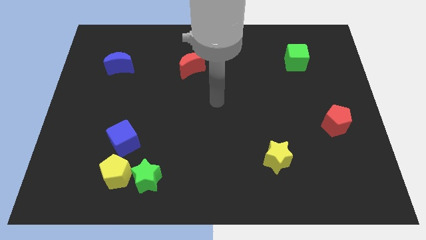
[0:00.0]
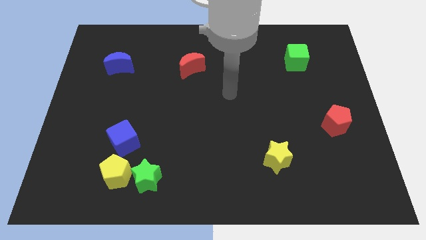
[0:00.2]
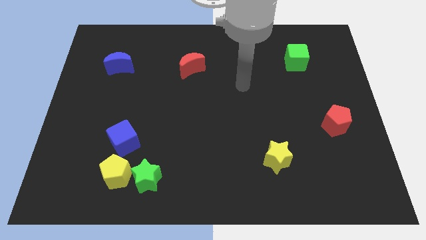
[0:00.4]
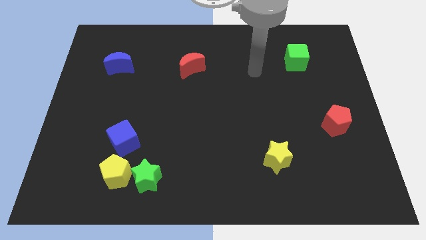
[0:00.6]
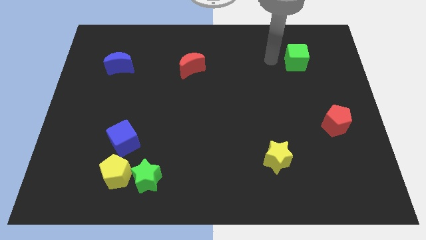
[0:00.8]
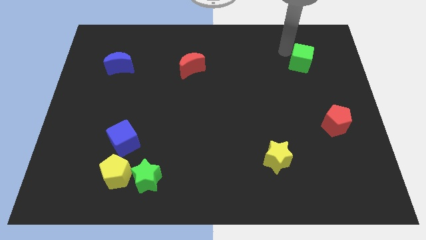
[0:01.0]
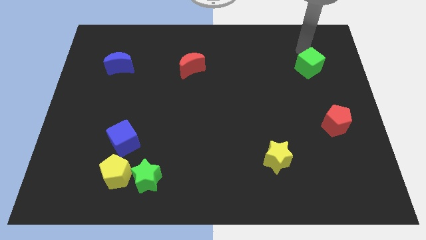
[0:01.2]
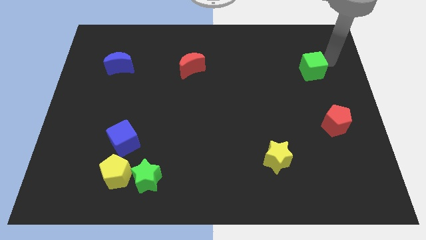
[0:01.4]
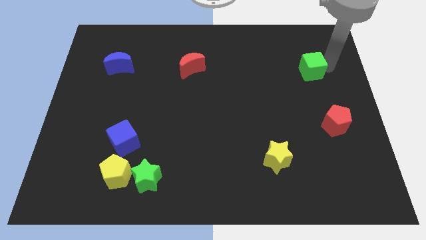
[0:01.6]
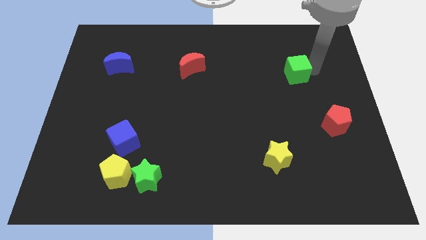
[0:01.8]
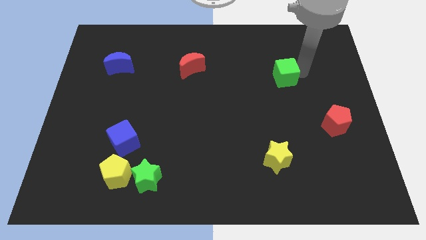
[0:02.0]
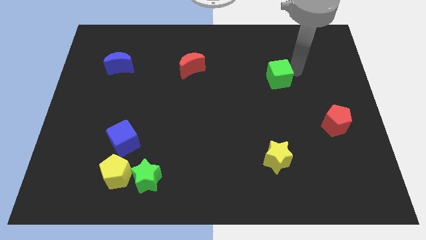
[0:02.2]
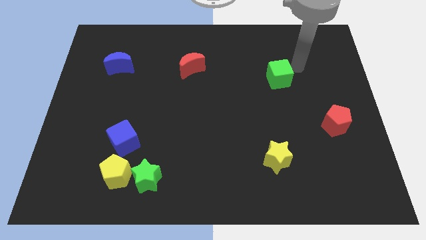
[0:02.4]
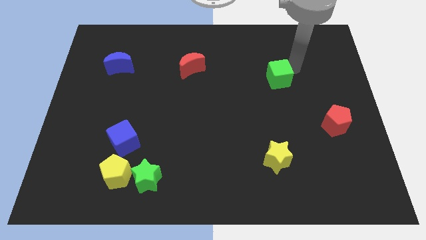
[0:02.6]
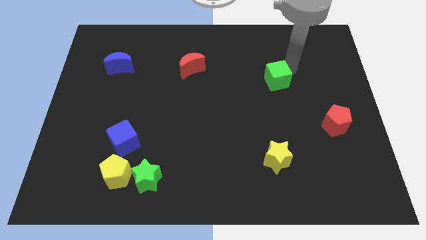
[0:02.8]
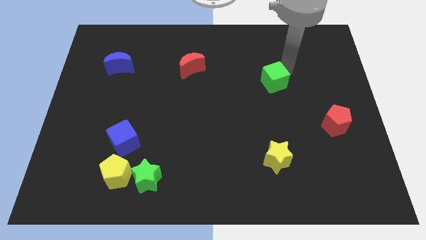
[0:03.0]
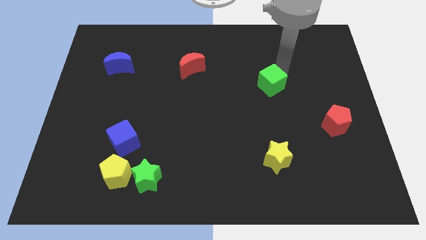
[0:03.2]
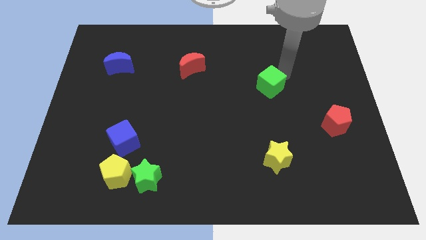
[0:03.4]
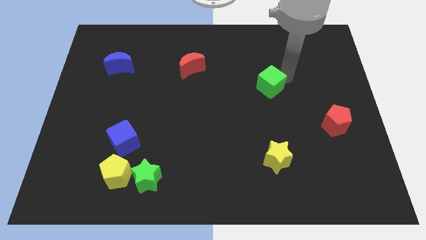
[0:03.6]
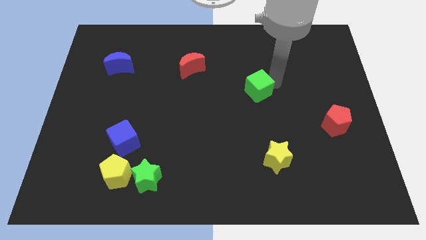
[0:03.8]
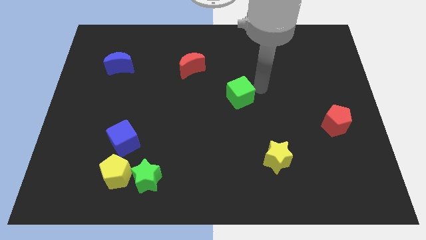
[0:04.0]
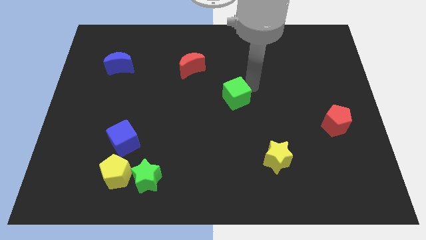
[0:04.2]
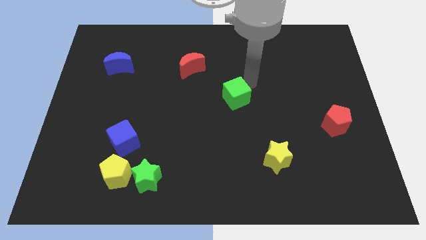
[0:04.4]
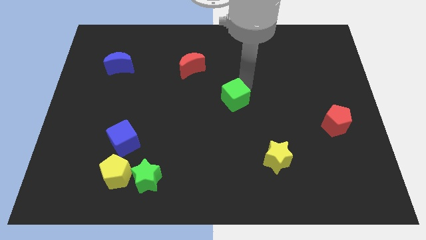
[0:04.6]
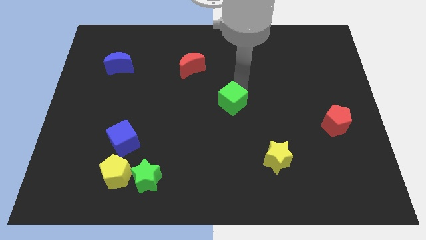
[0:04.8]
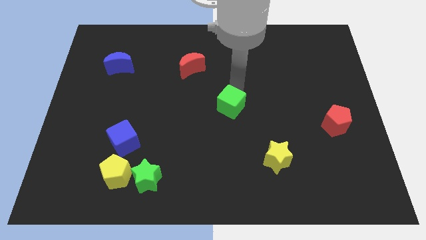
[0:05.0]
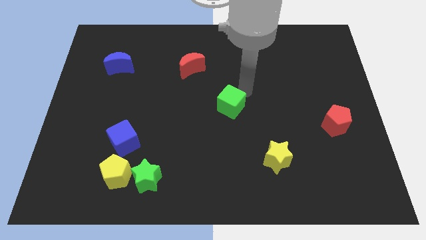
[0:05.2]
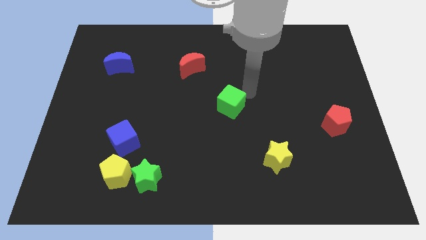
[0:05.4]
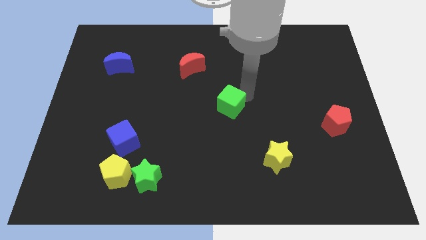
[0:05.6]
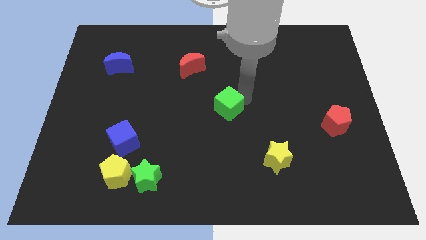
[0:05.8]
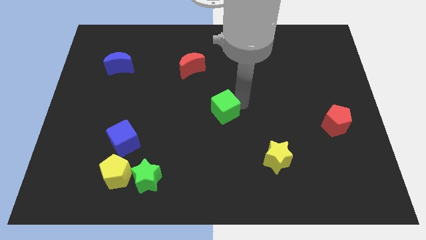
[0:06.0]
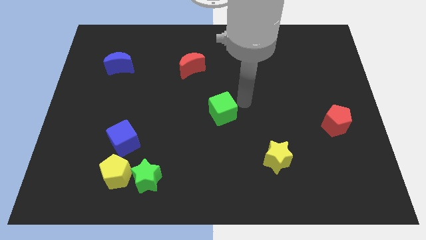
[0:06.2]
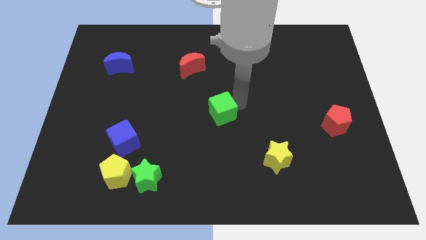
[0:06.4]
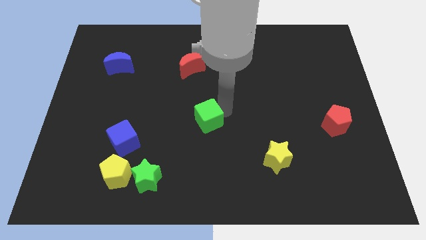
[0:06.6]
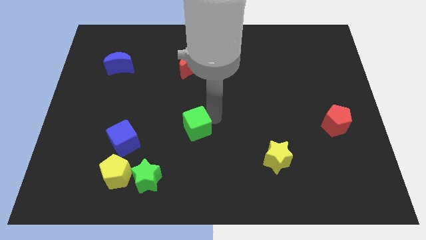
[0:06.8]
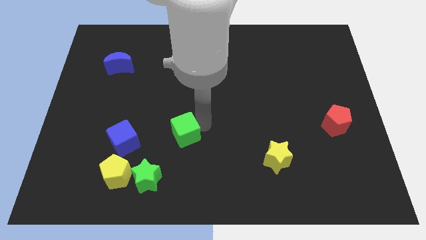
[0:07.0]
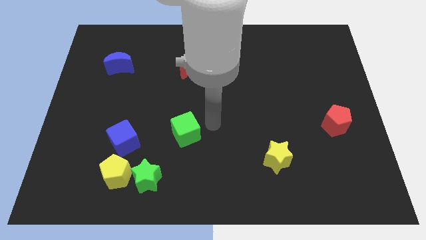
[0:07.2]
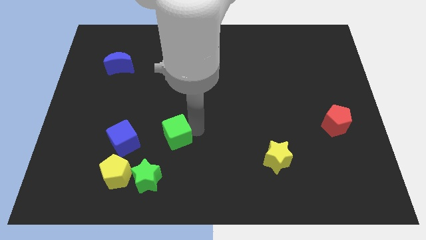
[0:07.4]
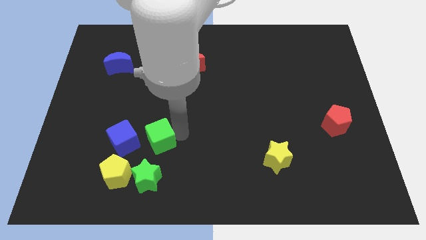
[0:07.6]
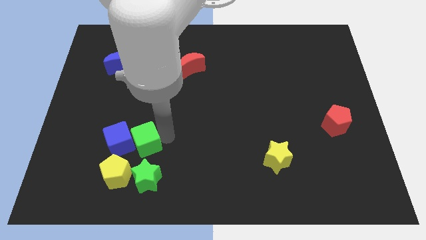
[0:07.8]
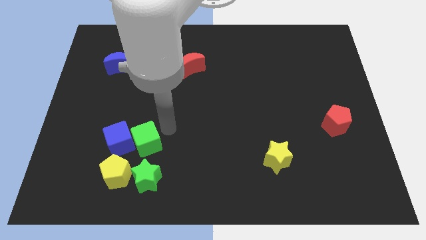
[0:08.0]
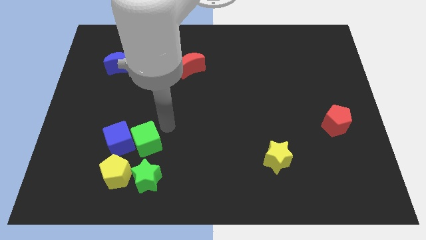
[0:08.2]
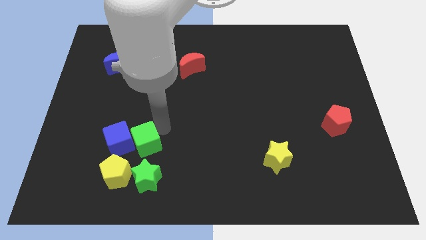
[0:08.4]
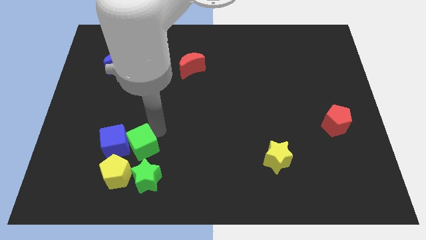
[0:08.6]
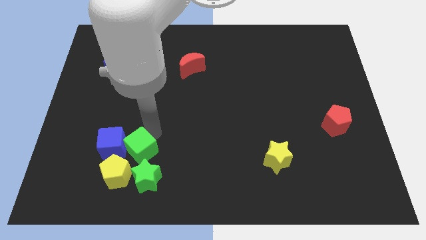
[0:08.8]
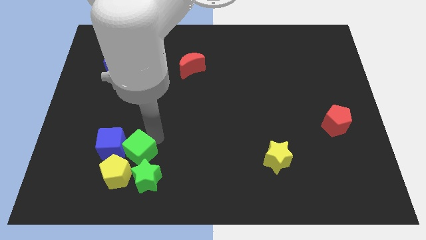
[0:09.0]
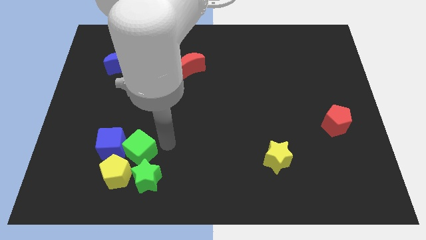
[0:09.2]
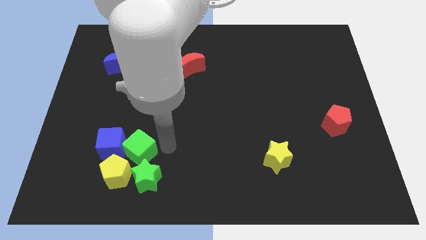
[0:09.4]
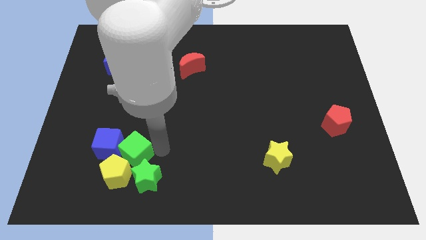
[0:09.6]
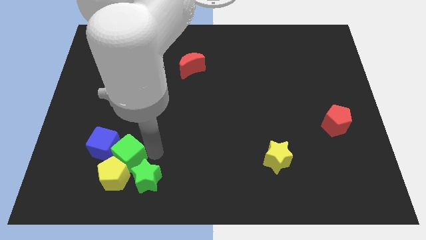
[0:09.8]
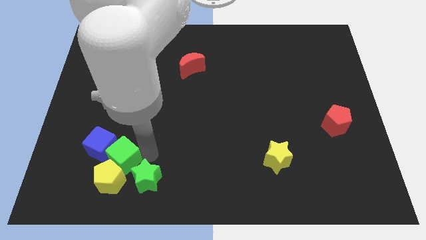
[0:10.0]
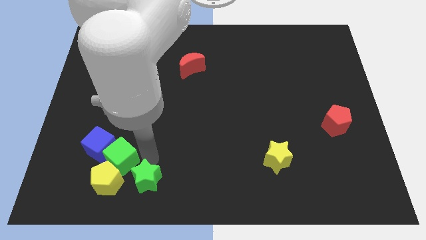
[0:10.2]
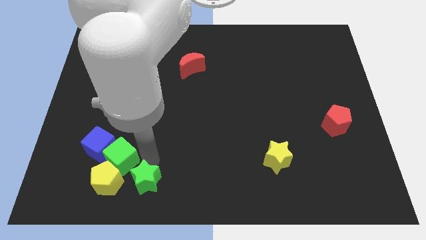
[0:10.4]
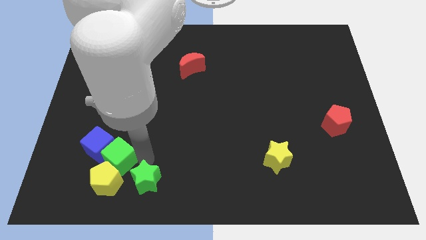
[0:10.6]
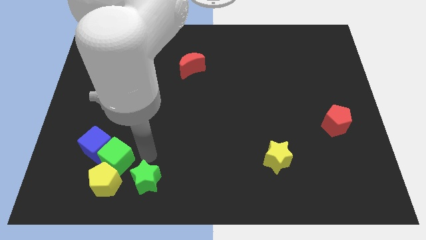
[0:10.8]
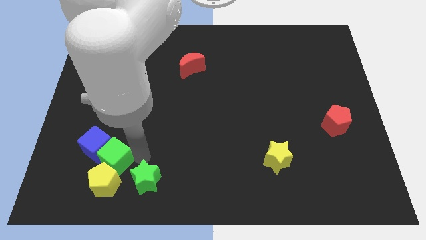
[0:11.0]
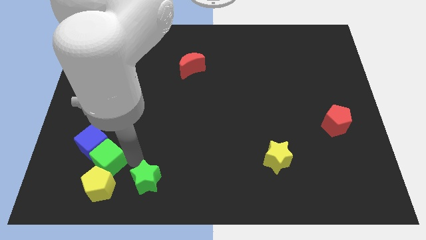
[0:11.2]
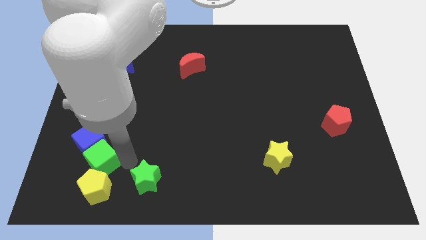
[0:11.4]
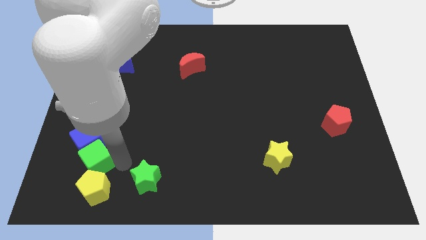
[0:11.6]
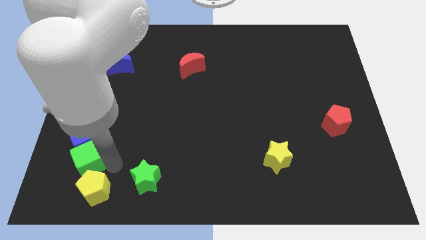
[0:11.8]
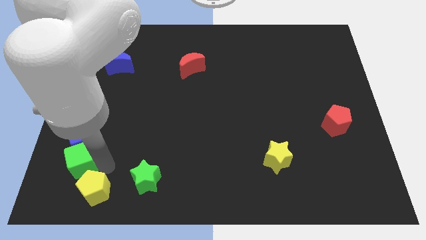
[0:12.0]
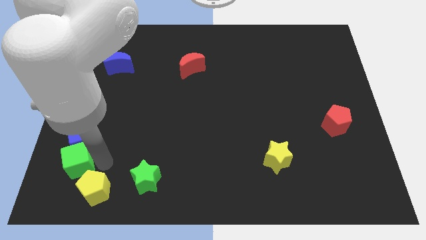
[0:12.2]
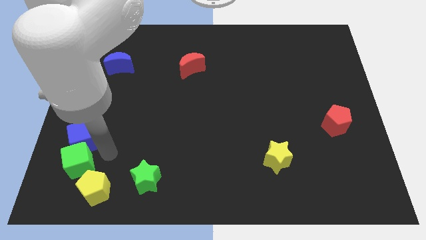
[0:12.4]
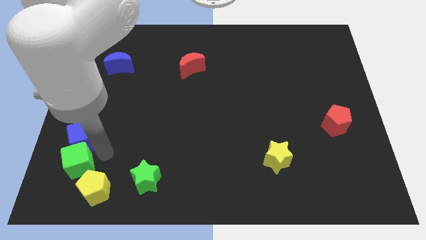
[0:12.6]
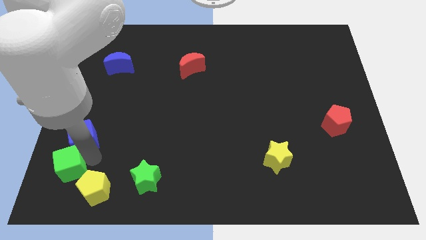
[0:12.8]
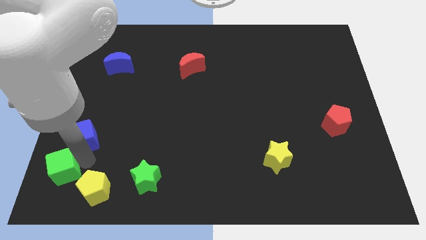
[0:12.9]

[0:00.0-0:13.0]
slide the green cube to the bottom left of the board
